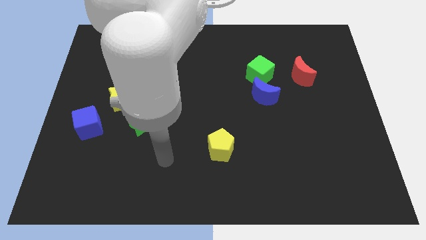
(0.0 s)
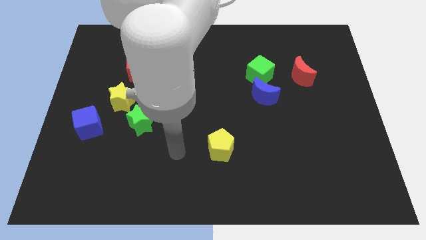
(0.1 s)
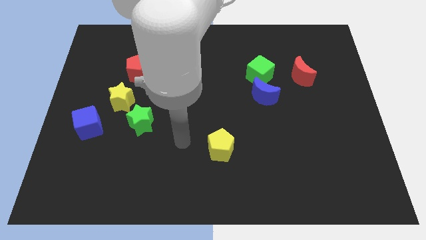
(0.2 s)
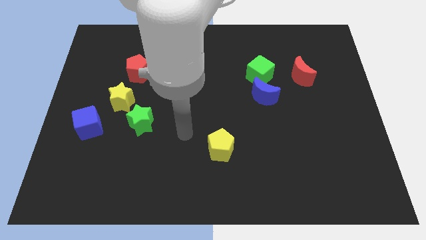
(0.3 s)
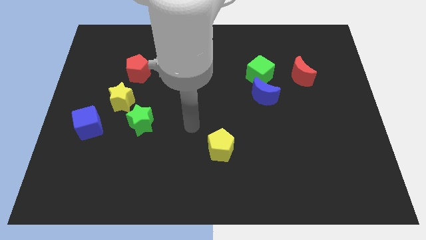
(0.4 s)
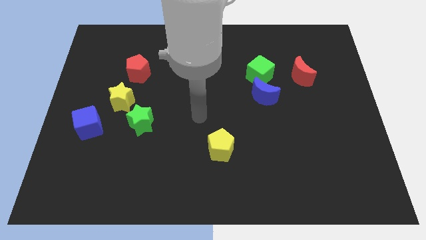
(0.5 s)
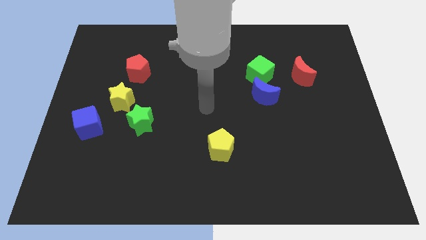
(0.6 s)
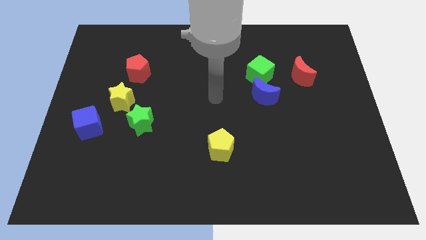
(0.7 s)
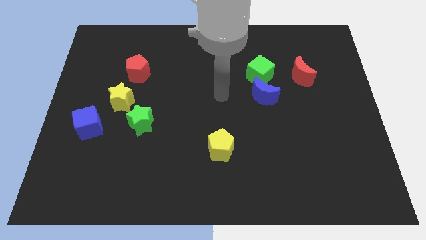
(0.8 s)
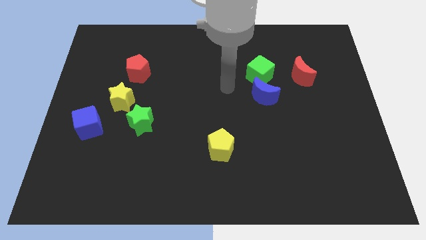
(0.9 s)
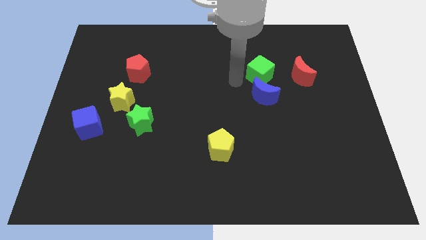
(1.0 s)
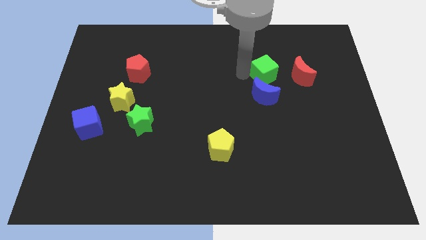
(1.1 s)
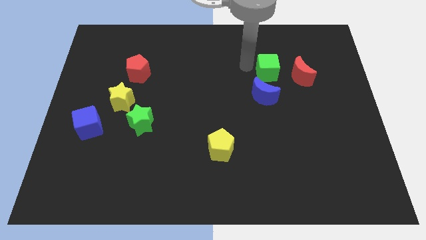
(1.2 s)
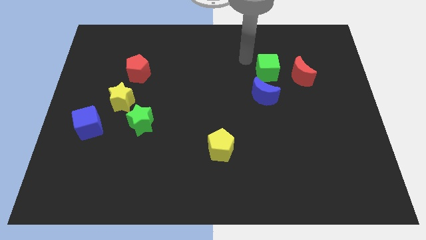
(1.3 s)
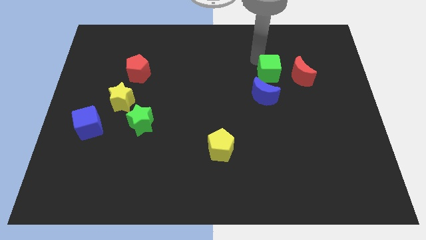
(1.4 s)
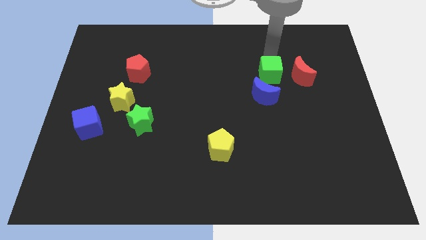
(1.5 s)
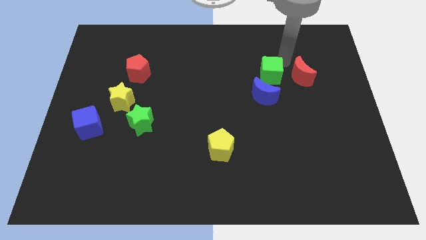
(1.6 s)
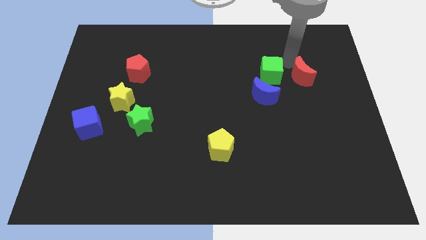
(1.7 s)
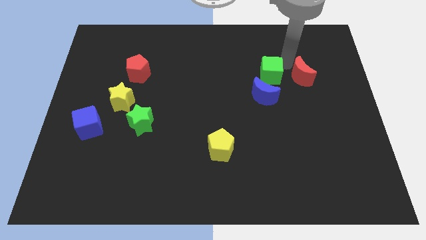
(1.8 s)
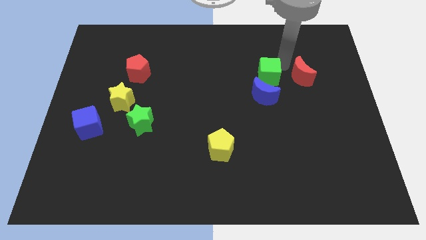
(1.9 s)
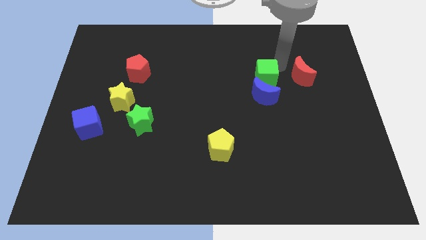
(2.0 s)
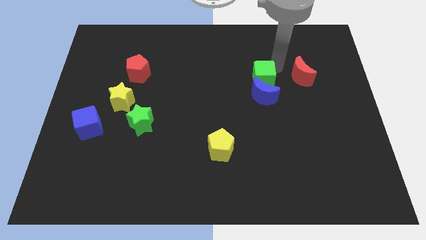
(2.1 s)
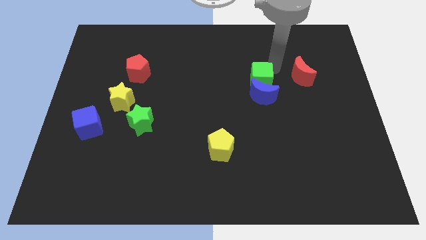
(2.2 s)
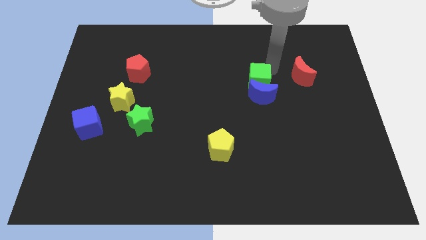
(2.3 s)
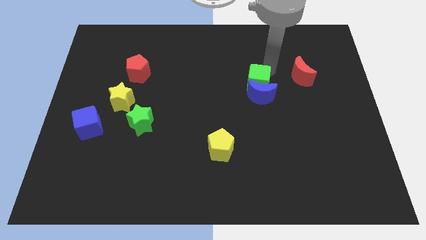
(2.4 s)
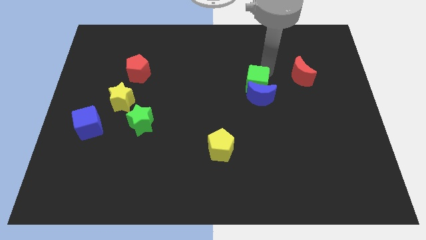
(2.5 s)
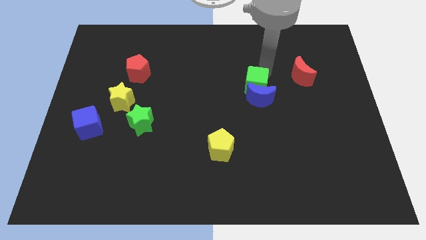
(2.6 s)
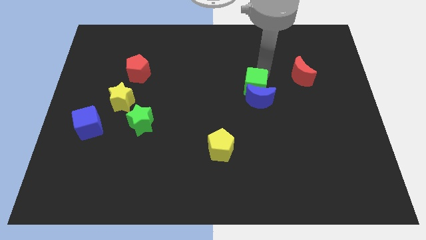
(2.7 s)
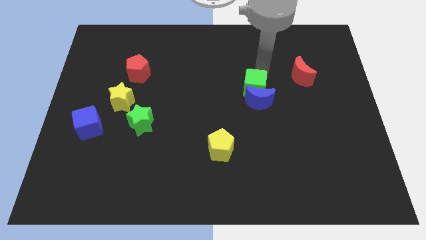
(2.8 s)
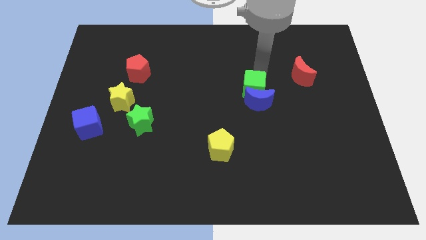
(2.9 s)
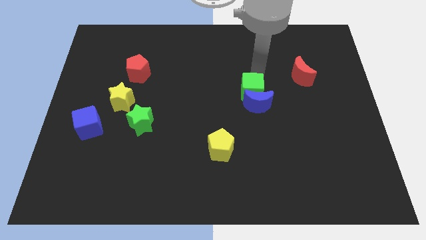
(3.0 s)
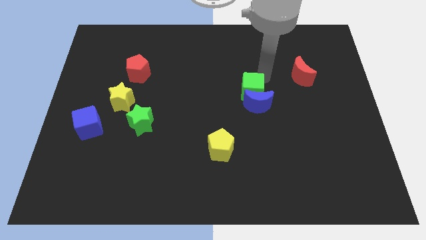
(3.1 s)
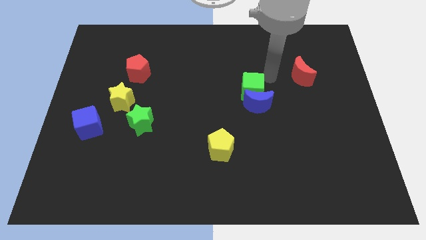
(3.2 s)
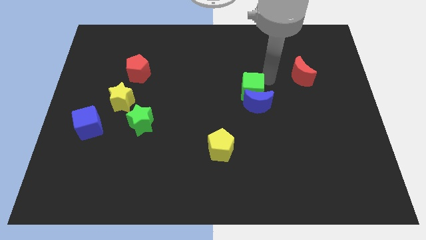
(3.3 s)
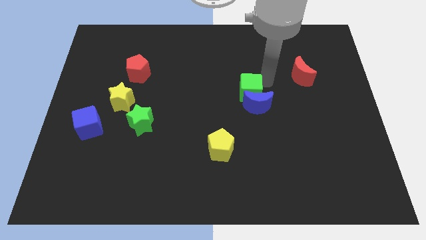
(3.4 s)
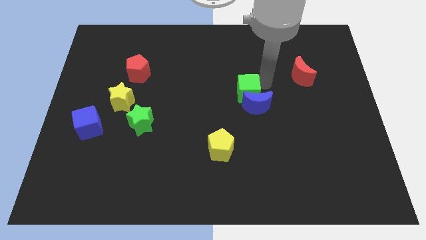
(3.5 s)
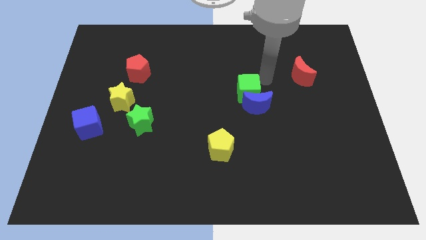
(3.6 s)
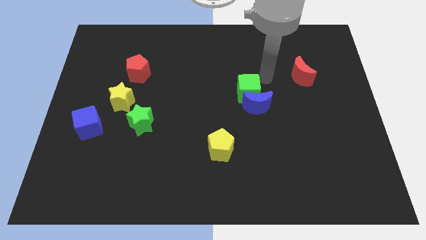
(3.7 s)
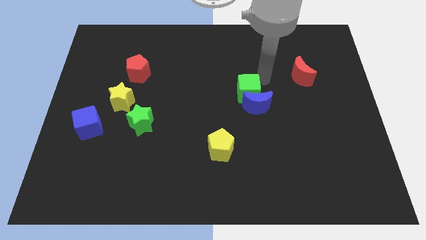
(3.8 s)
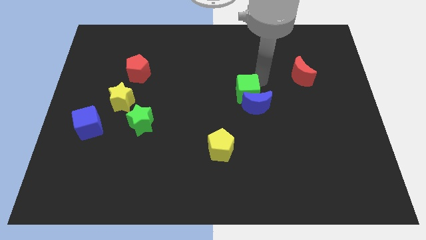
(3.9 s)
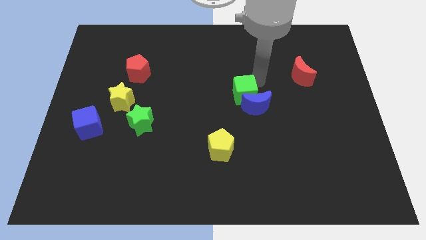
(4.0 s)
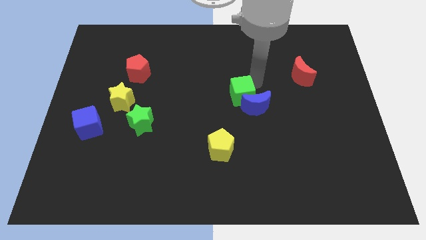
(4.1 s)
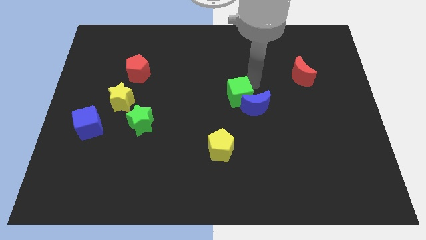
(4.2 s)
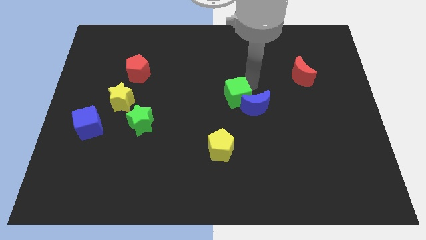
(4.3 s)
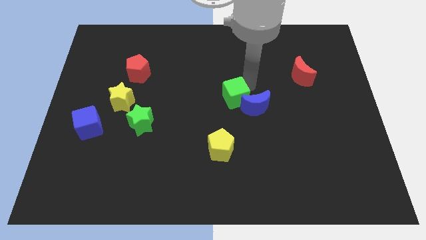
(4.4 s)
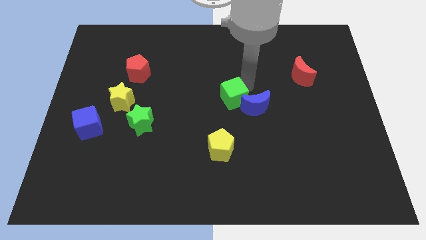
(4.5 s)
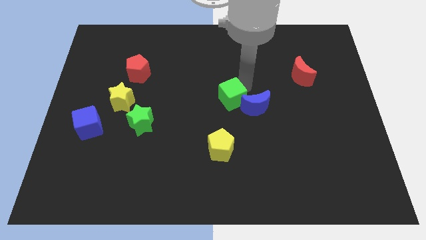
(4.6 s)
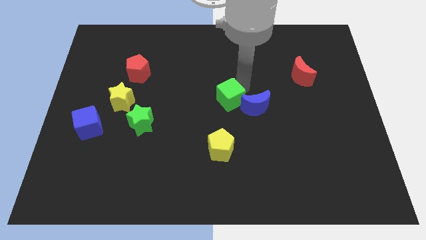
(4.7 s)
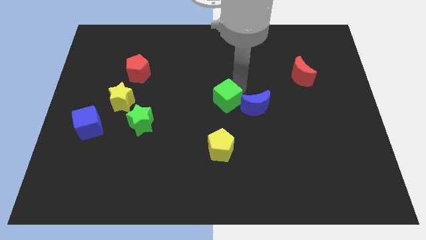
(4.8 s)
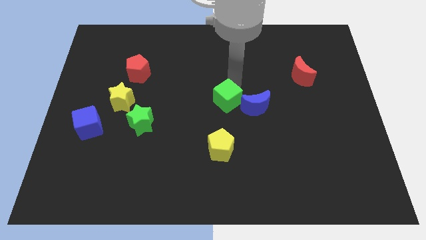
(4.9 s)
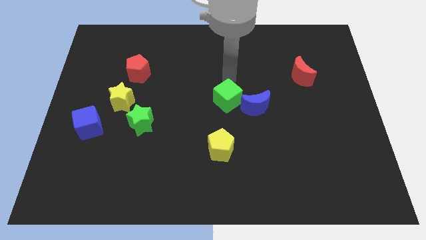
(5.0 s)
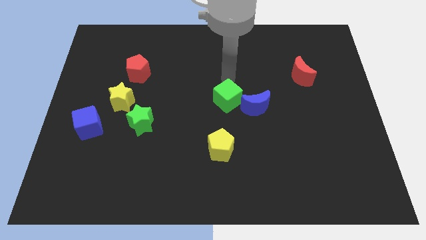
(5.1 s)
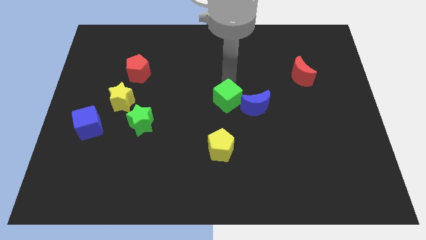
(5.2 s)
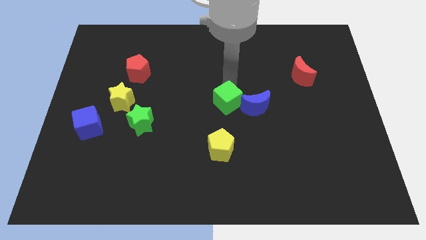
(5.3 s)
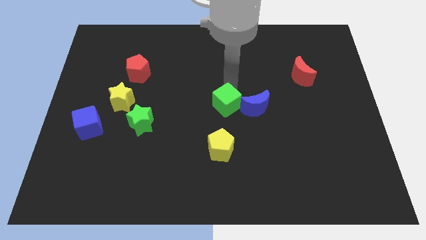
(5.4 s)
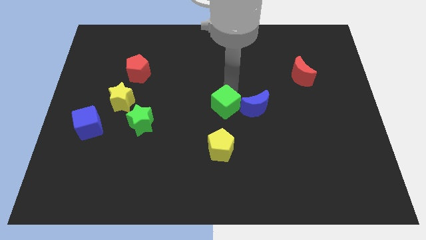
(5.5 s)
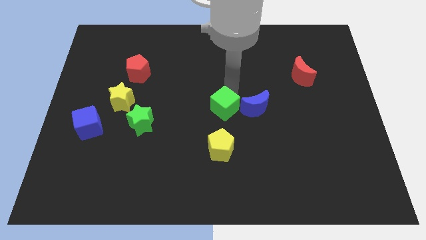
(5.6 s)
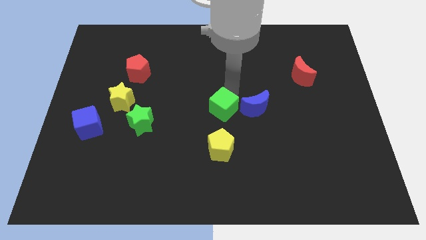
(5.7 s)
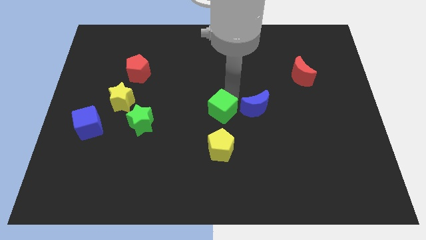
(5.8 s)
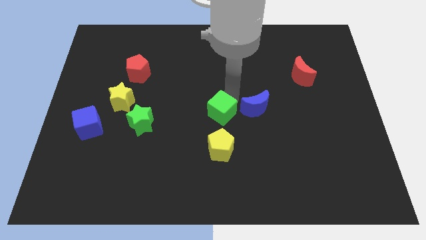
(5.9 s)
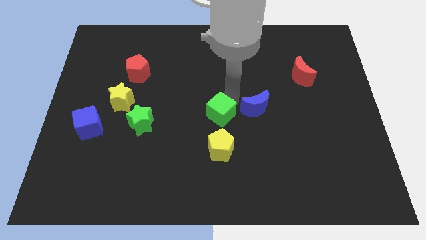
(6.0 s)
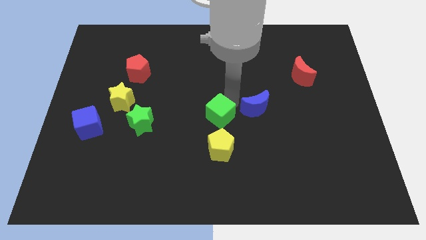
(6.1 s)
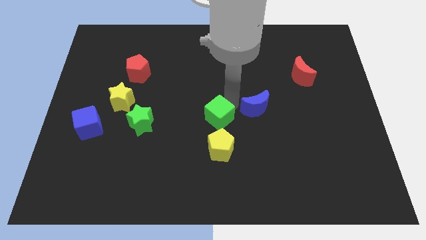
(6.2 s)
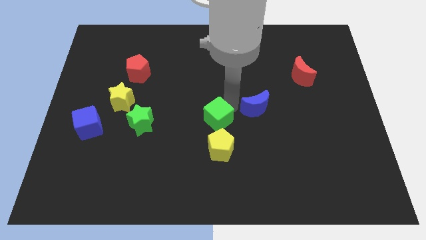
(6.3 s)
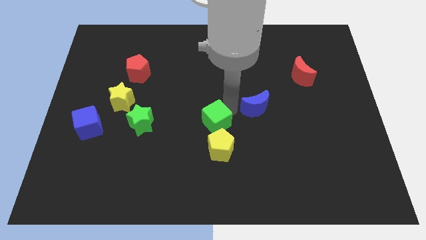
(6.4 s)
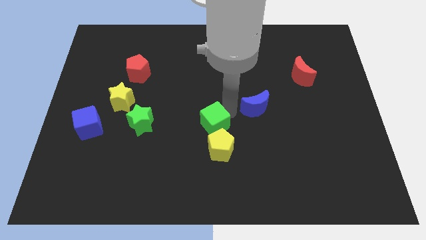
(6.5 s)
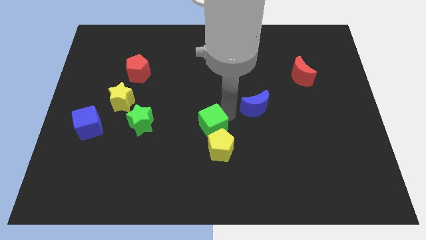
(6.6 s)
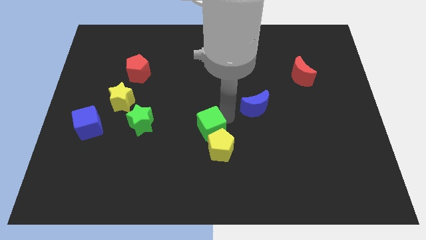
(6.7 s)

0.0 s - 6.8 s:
put the green cube towards the yellow pentagon

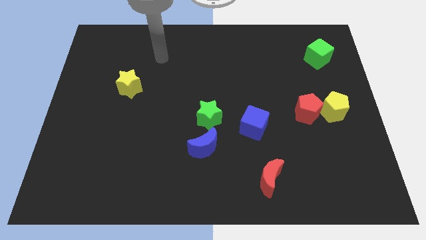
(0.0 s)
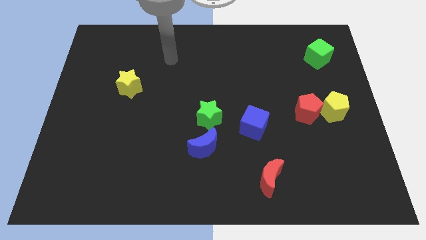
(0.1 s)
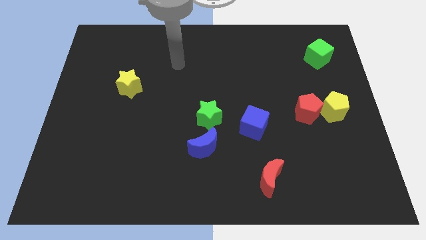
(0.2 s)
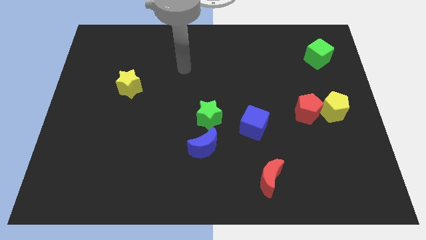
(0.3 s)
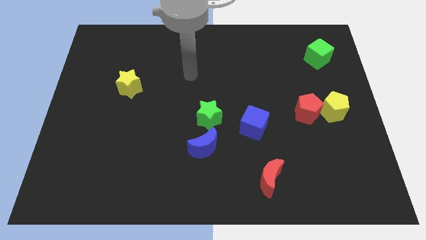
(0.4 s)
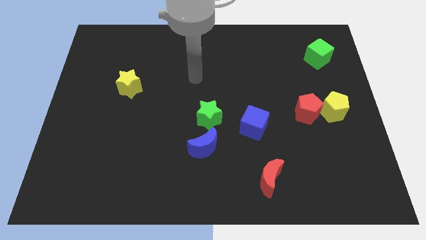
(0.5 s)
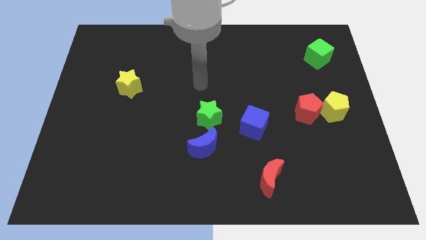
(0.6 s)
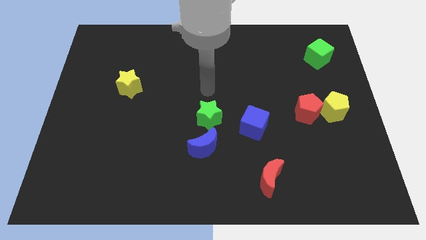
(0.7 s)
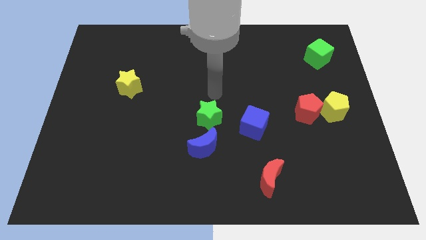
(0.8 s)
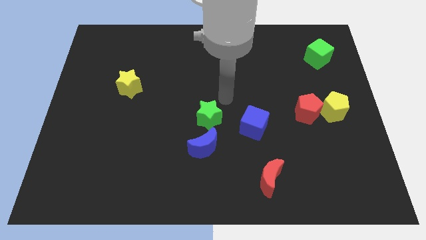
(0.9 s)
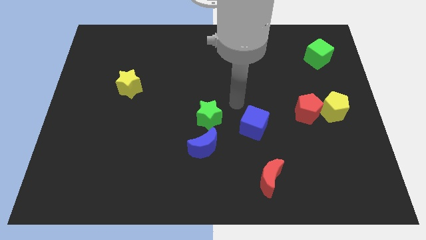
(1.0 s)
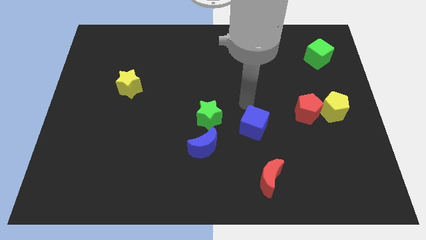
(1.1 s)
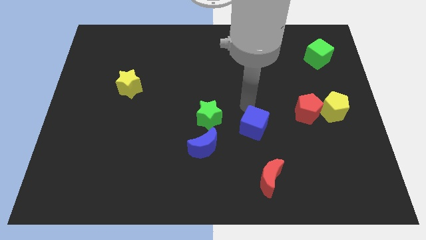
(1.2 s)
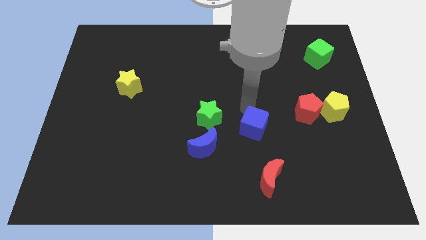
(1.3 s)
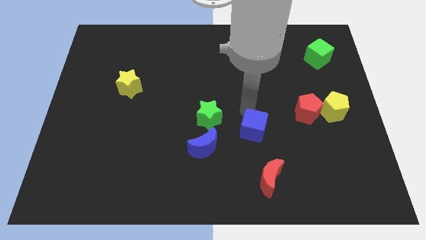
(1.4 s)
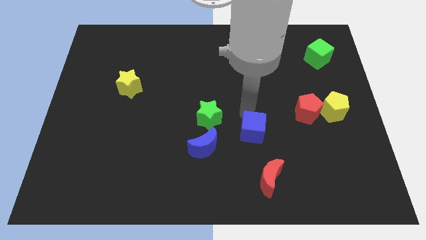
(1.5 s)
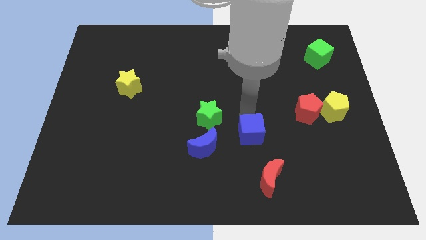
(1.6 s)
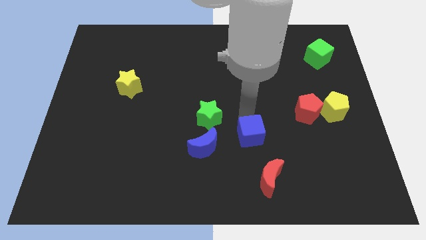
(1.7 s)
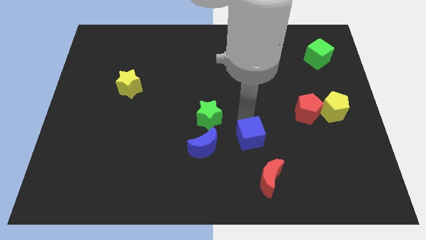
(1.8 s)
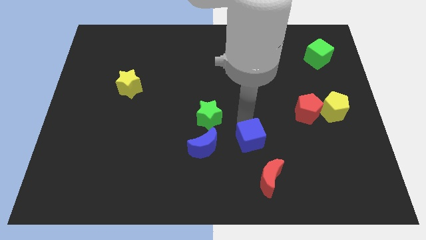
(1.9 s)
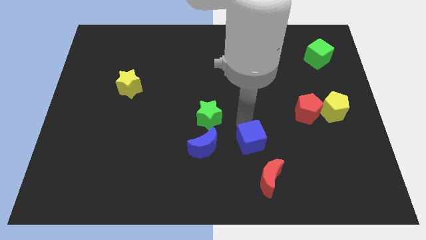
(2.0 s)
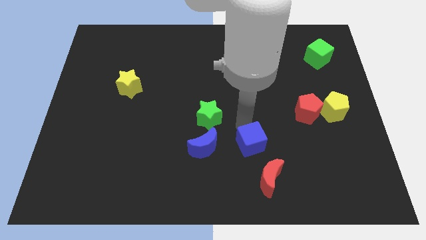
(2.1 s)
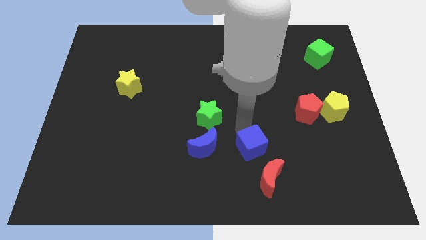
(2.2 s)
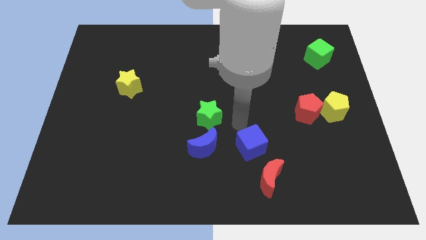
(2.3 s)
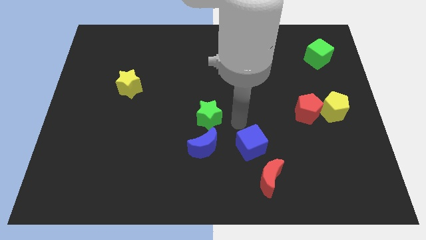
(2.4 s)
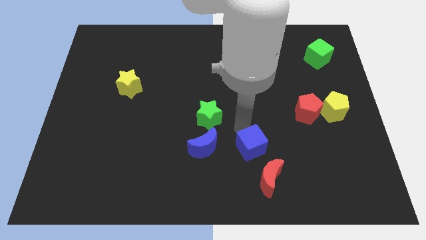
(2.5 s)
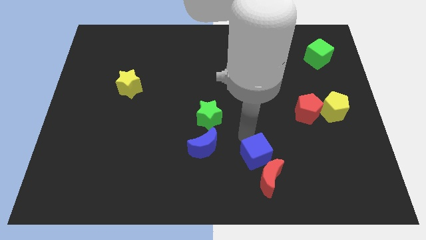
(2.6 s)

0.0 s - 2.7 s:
push the blue cube next to the red moon
